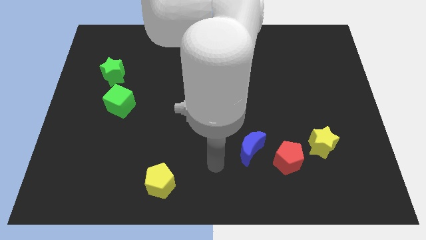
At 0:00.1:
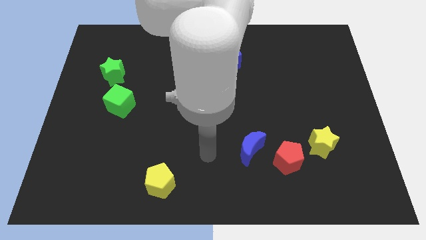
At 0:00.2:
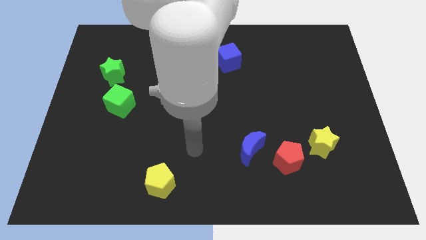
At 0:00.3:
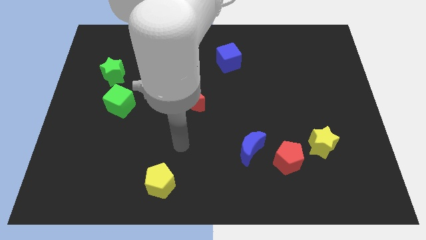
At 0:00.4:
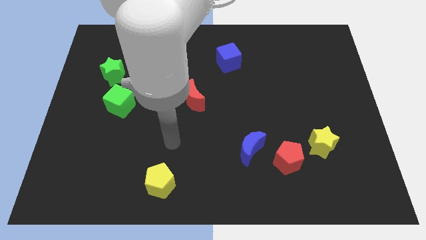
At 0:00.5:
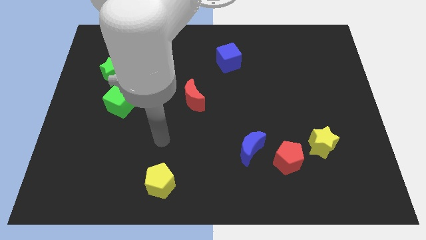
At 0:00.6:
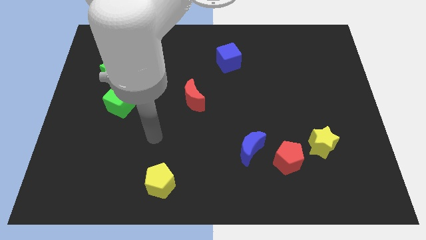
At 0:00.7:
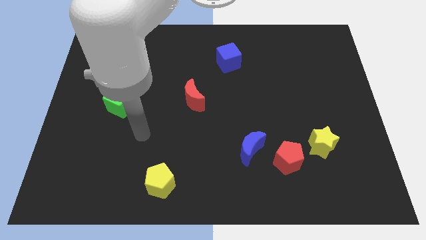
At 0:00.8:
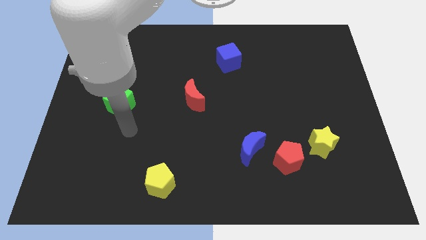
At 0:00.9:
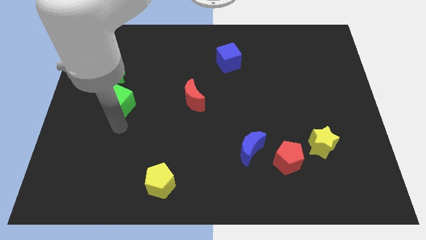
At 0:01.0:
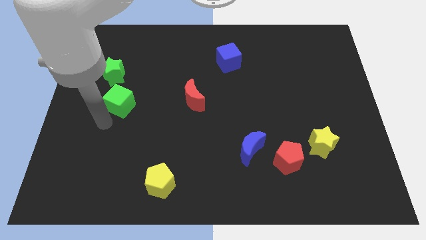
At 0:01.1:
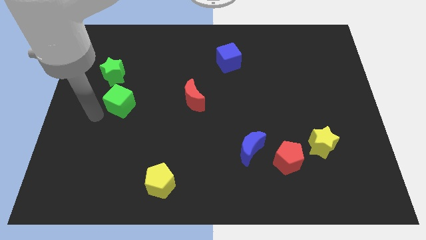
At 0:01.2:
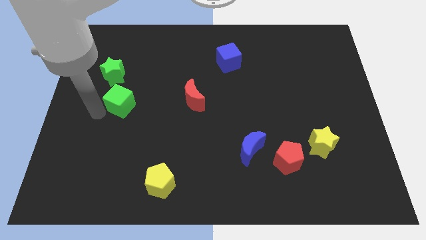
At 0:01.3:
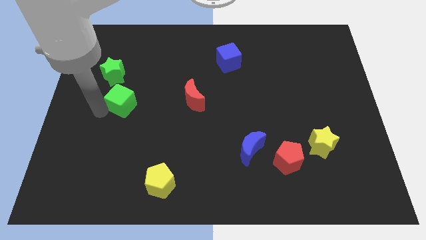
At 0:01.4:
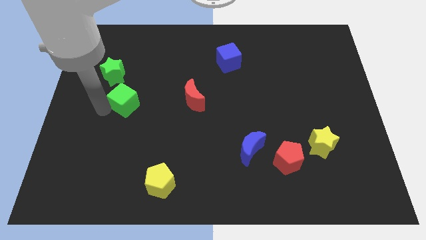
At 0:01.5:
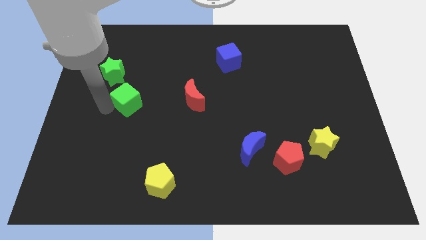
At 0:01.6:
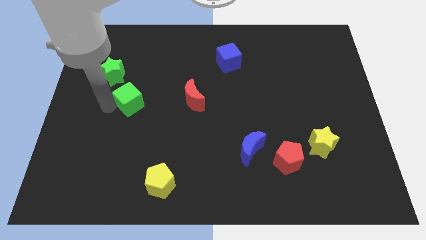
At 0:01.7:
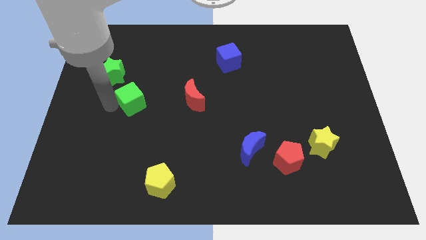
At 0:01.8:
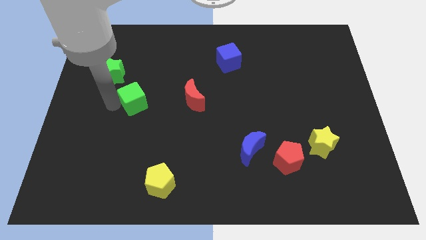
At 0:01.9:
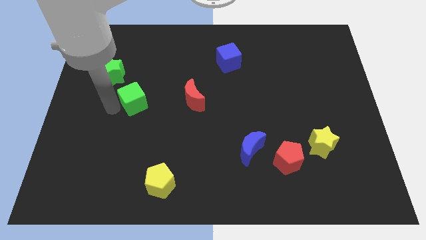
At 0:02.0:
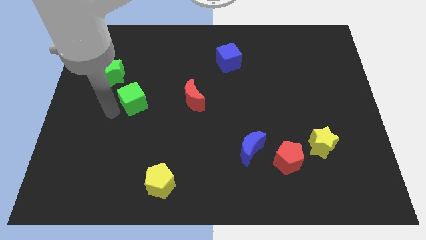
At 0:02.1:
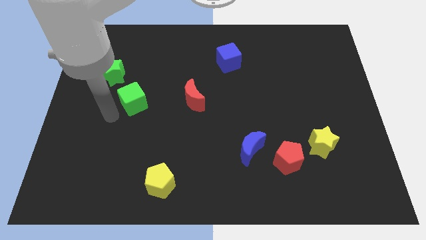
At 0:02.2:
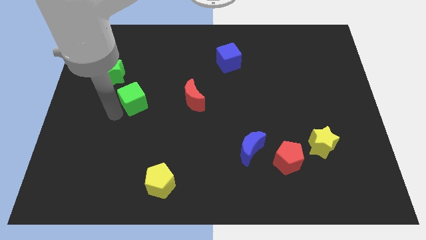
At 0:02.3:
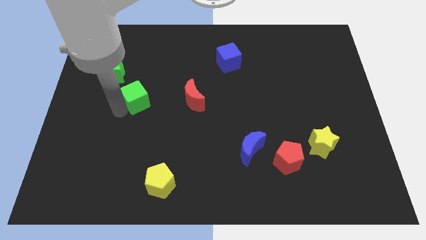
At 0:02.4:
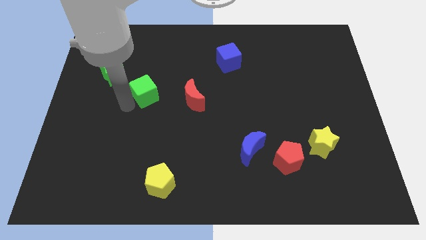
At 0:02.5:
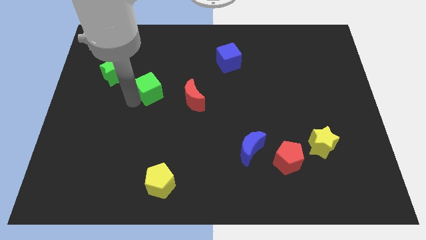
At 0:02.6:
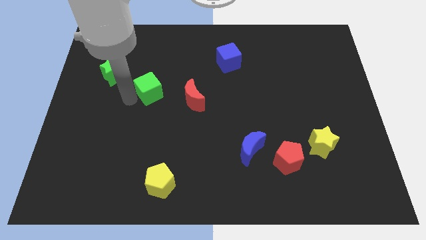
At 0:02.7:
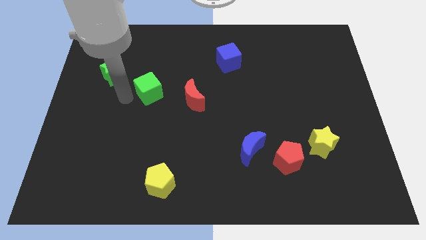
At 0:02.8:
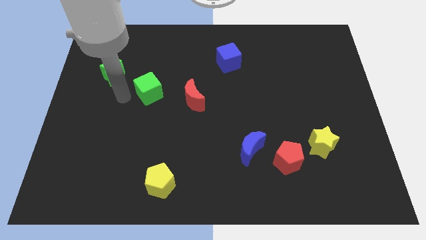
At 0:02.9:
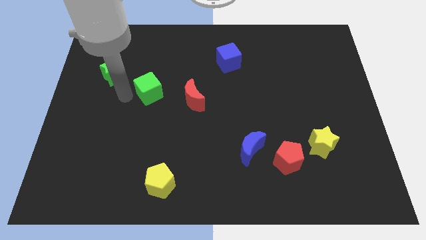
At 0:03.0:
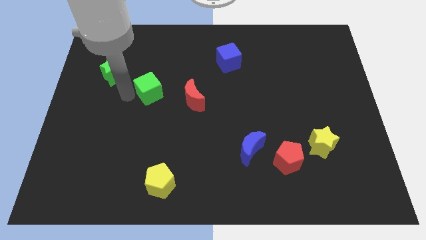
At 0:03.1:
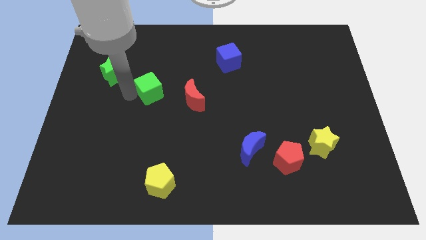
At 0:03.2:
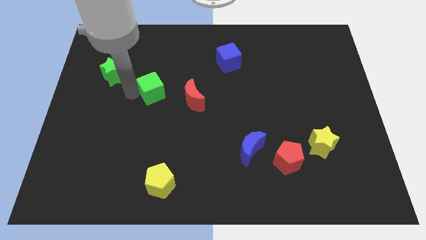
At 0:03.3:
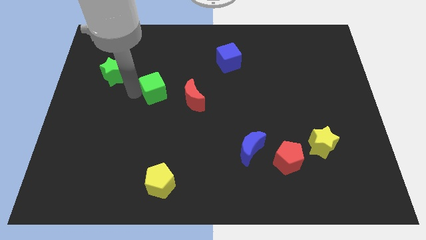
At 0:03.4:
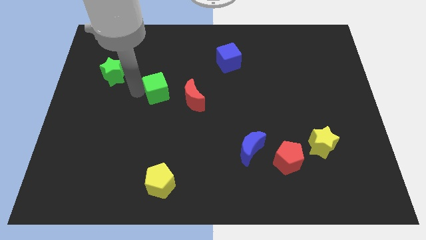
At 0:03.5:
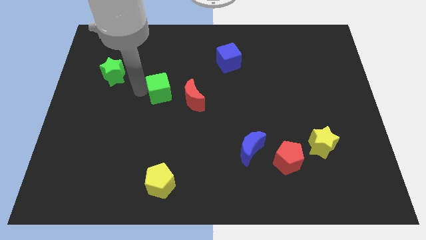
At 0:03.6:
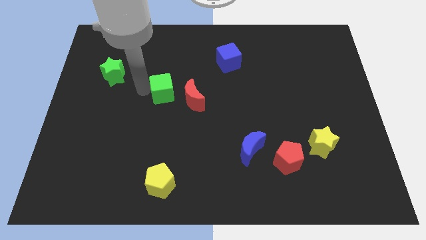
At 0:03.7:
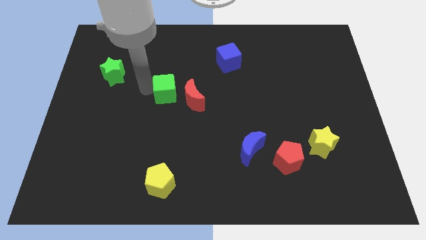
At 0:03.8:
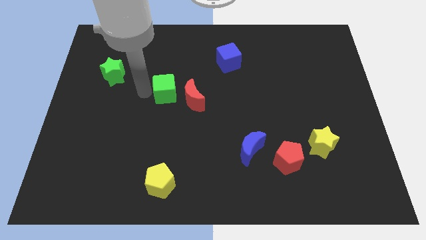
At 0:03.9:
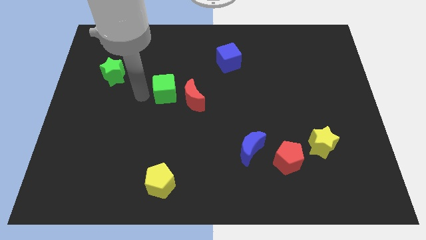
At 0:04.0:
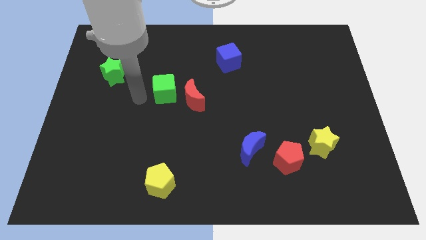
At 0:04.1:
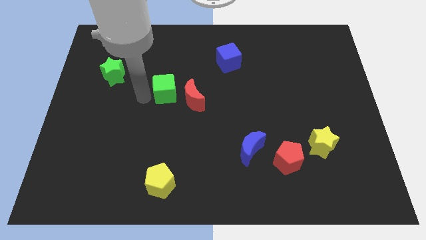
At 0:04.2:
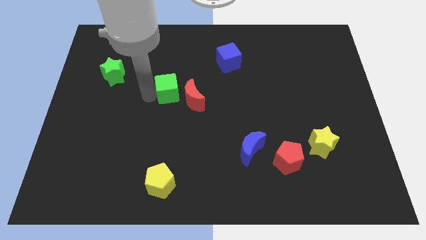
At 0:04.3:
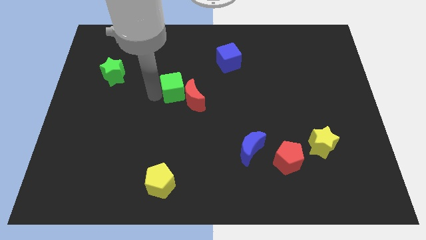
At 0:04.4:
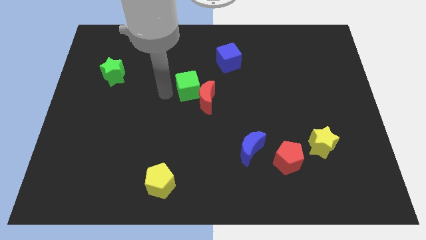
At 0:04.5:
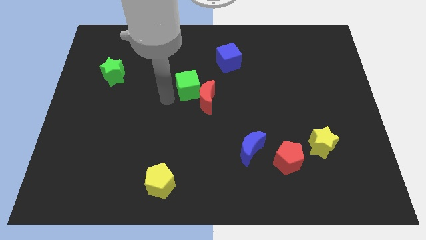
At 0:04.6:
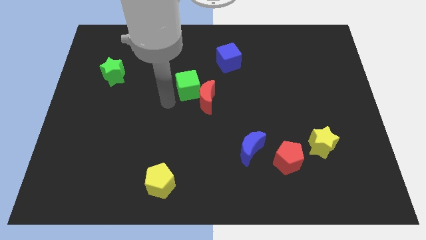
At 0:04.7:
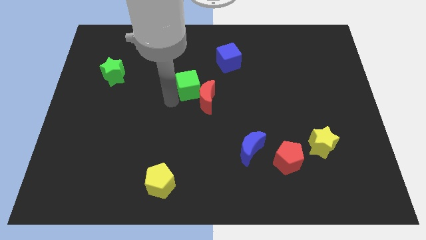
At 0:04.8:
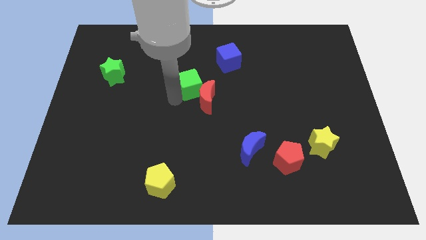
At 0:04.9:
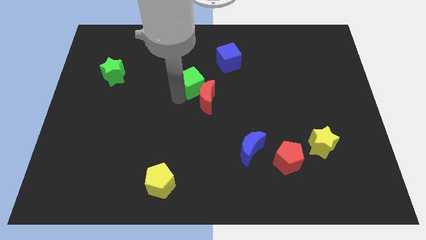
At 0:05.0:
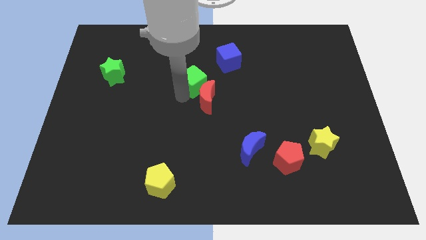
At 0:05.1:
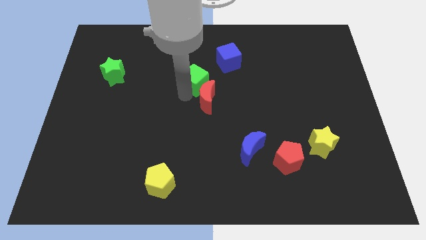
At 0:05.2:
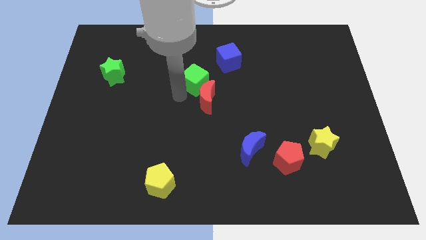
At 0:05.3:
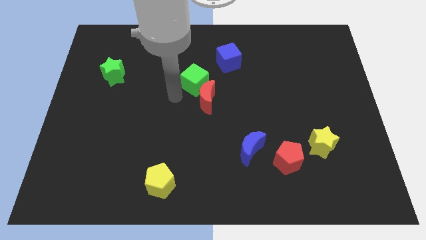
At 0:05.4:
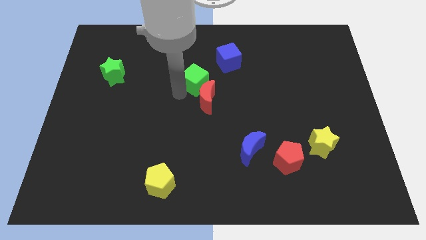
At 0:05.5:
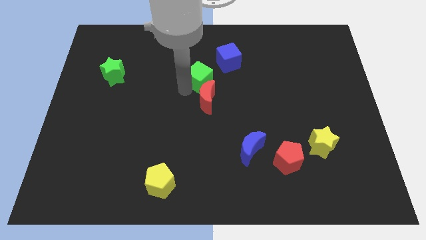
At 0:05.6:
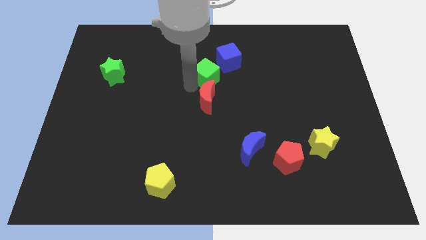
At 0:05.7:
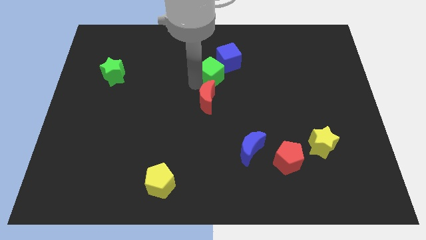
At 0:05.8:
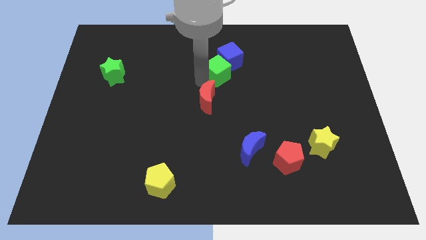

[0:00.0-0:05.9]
push the green cube next to the blue cube
